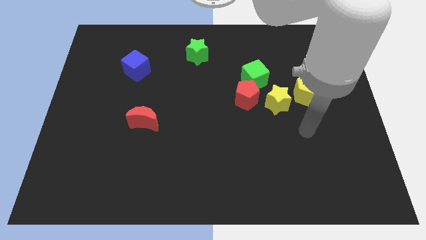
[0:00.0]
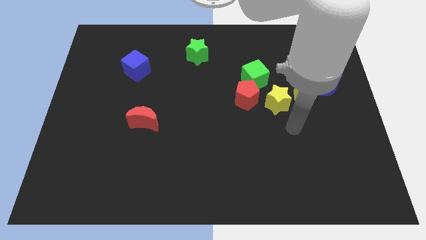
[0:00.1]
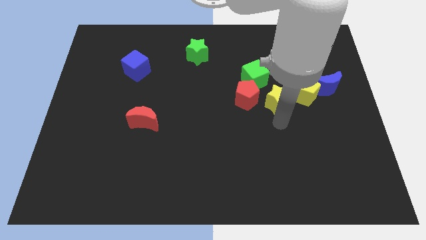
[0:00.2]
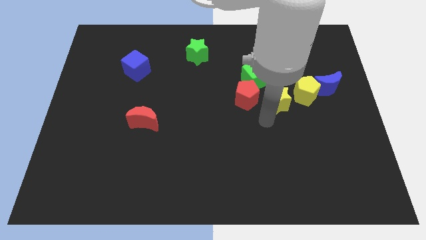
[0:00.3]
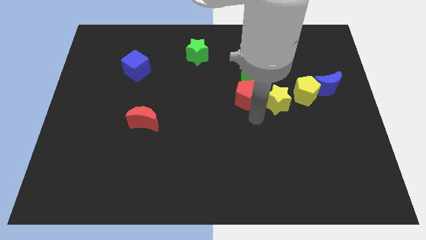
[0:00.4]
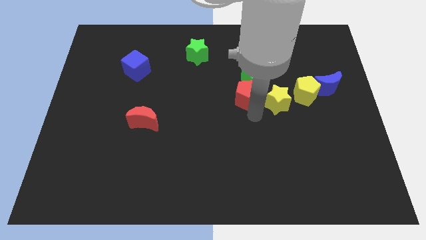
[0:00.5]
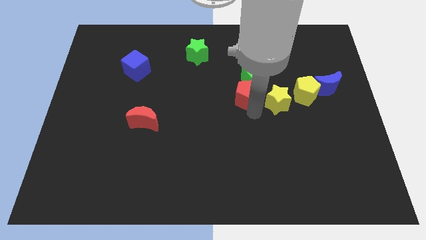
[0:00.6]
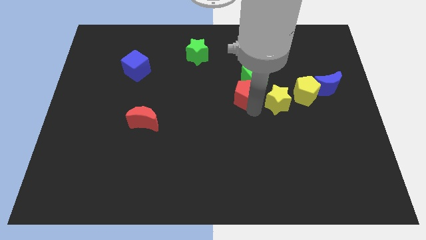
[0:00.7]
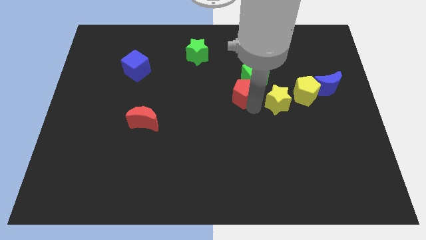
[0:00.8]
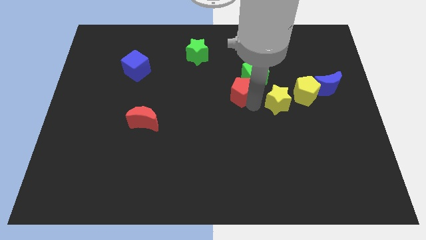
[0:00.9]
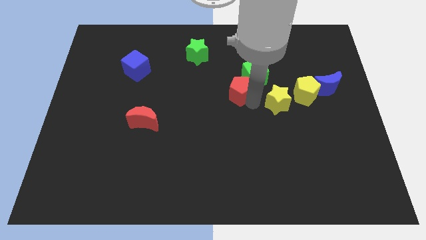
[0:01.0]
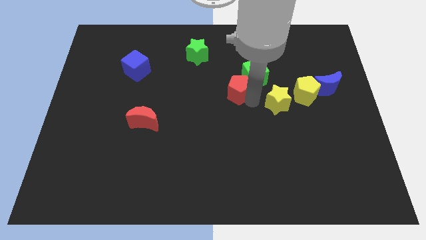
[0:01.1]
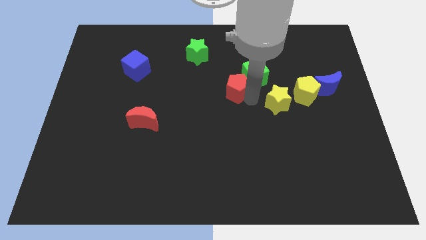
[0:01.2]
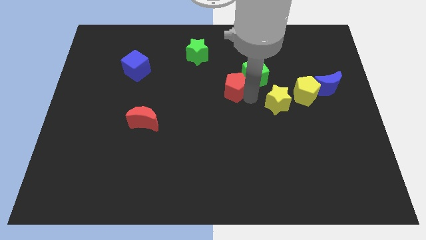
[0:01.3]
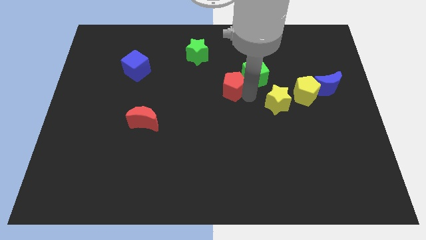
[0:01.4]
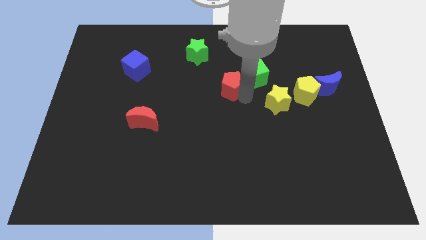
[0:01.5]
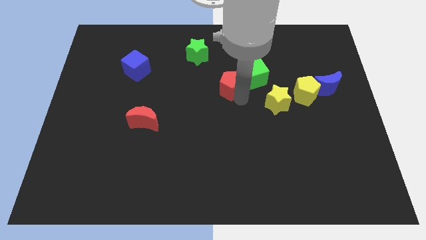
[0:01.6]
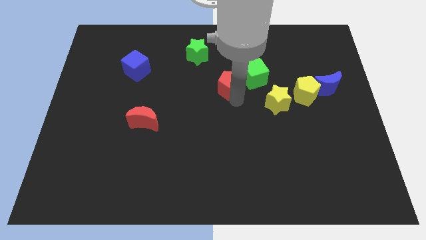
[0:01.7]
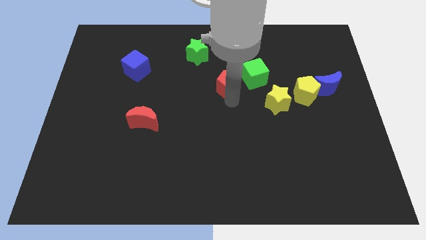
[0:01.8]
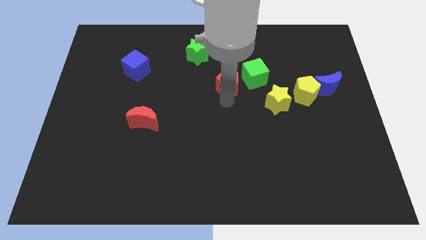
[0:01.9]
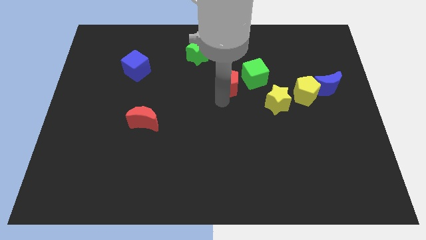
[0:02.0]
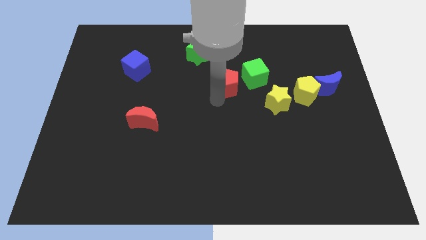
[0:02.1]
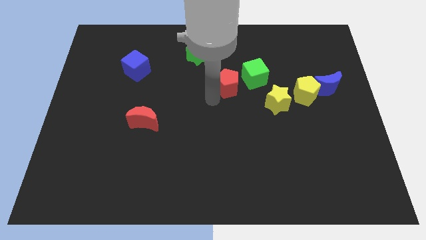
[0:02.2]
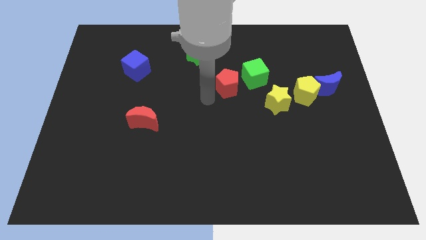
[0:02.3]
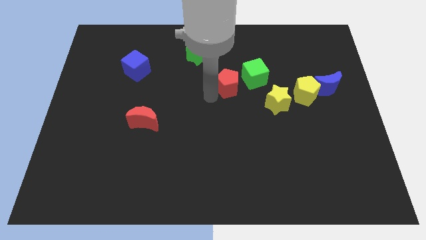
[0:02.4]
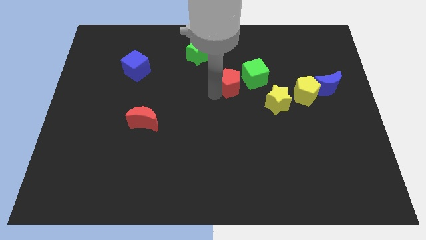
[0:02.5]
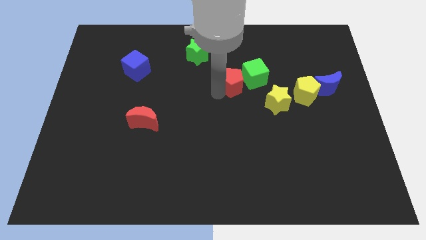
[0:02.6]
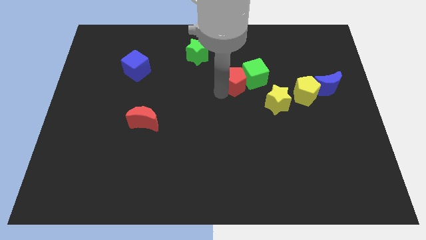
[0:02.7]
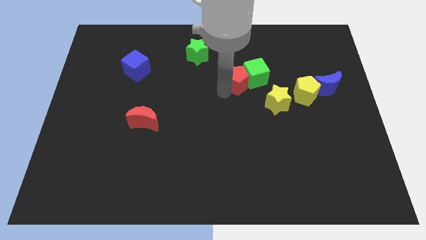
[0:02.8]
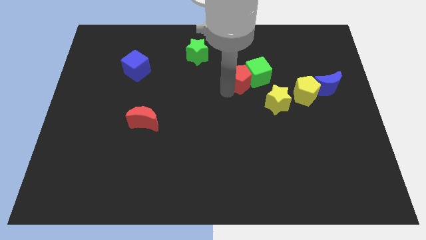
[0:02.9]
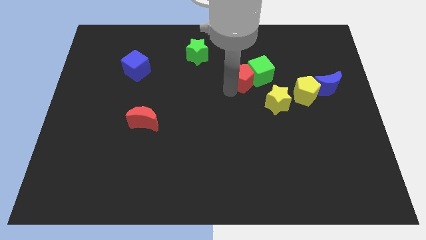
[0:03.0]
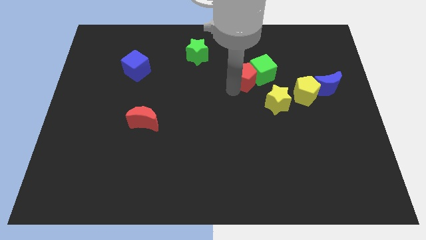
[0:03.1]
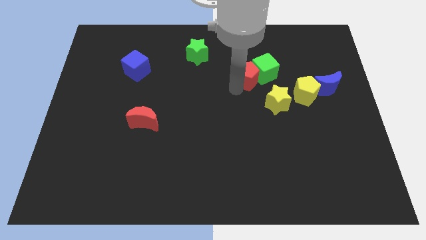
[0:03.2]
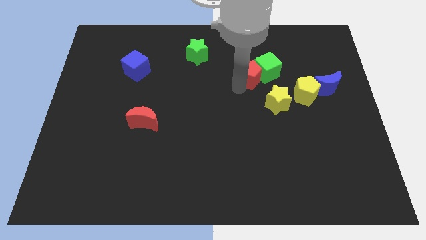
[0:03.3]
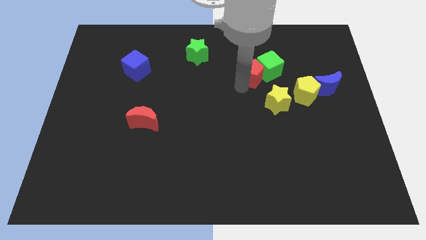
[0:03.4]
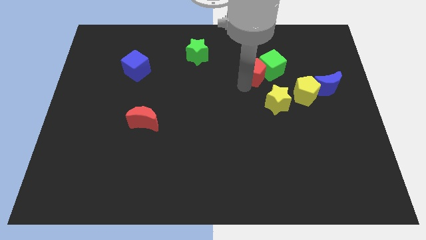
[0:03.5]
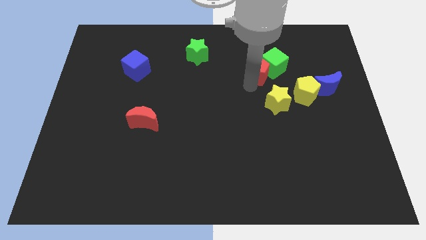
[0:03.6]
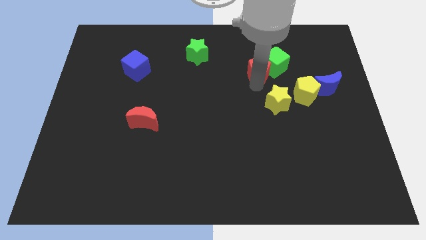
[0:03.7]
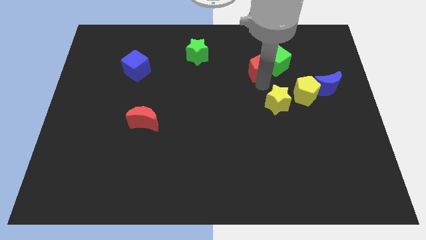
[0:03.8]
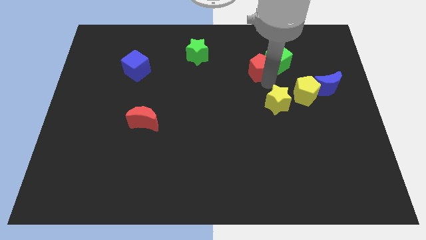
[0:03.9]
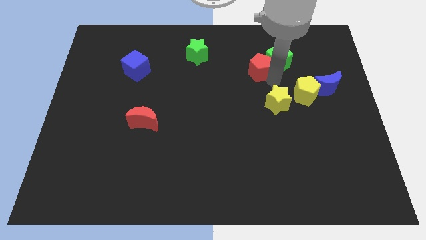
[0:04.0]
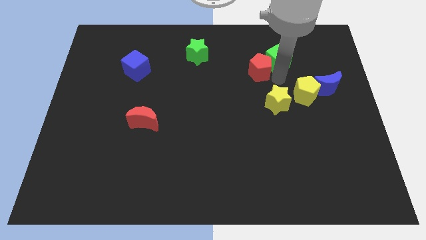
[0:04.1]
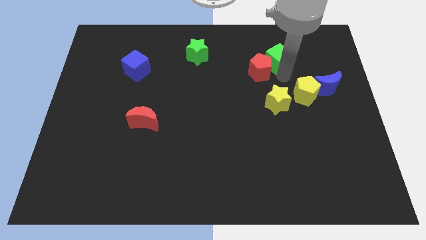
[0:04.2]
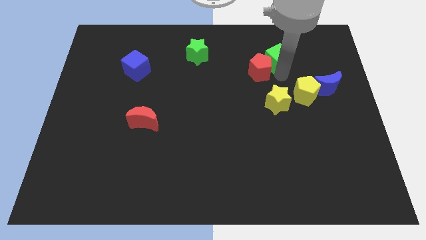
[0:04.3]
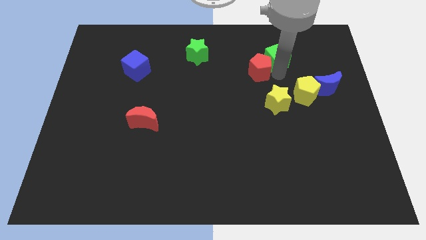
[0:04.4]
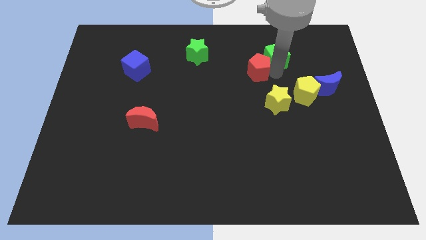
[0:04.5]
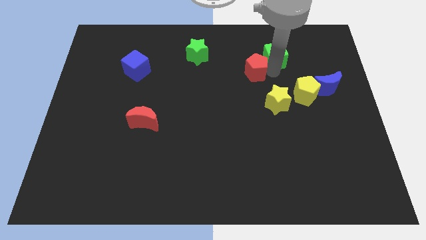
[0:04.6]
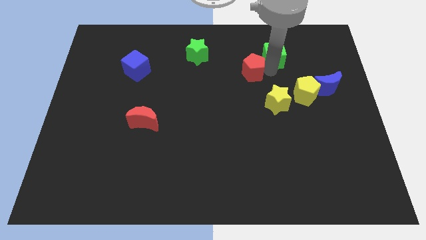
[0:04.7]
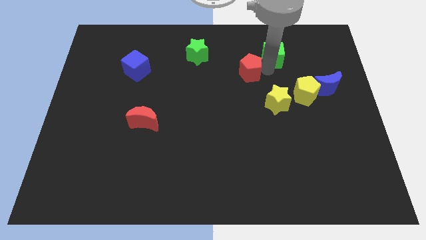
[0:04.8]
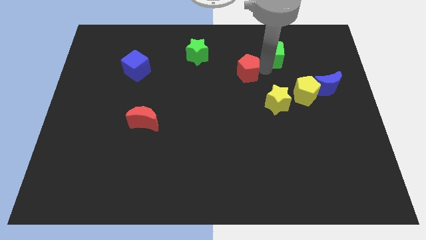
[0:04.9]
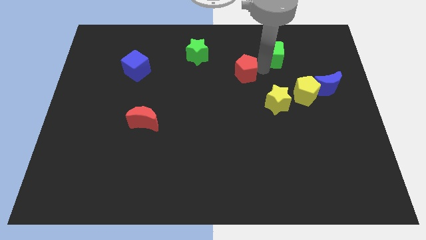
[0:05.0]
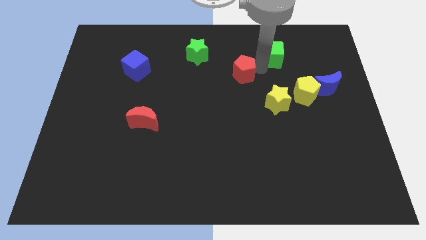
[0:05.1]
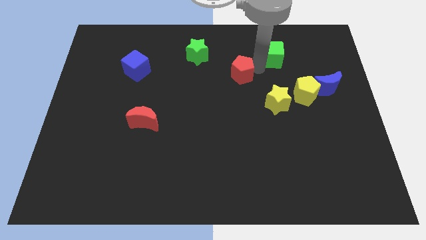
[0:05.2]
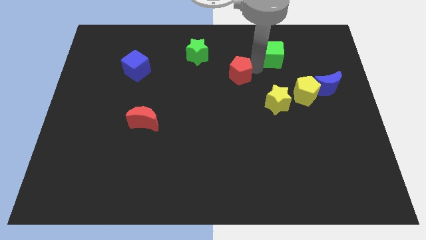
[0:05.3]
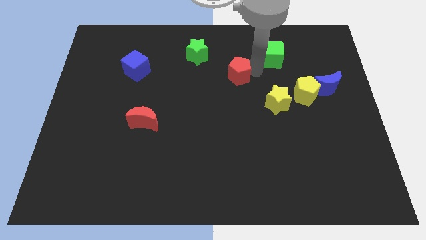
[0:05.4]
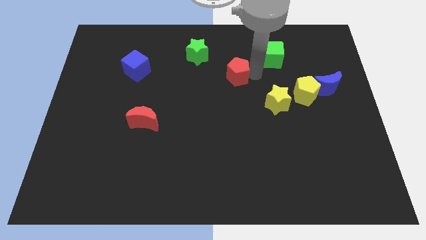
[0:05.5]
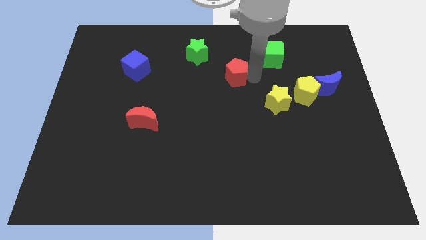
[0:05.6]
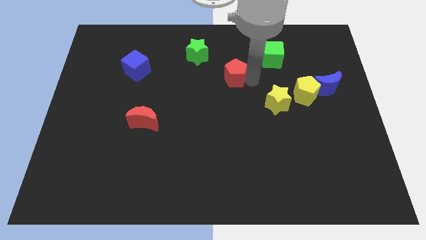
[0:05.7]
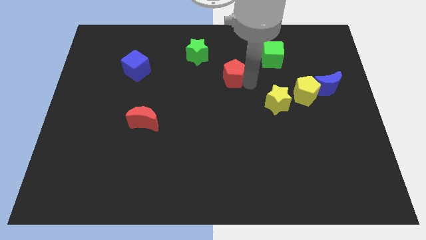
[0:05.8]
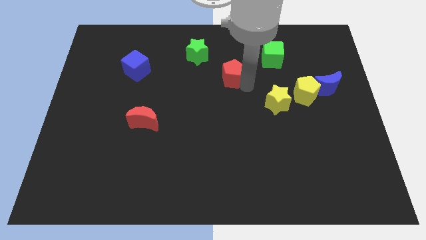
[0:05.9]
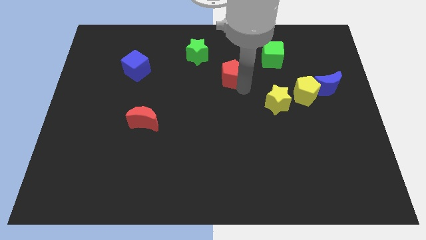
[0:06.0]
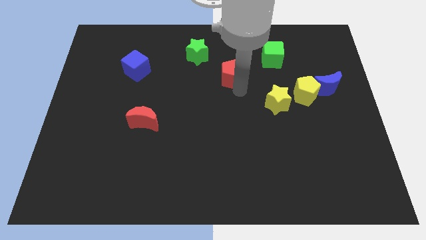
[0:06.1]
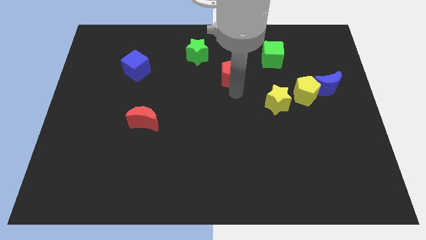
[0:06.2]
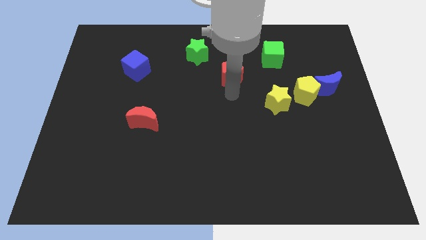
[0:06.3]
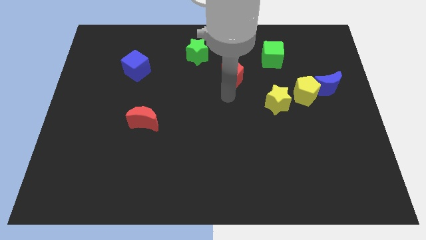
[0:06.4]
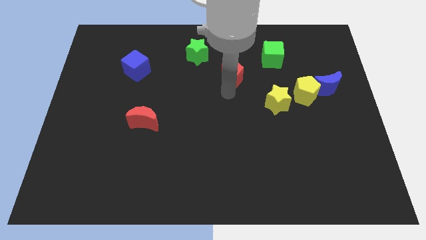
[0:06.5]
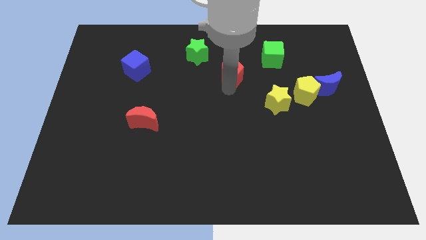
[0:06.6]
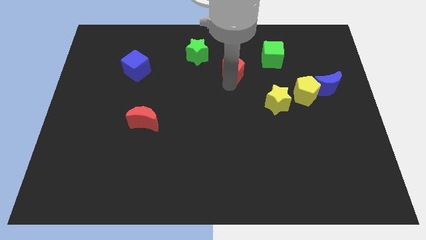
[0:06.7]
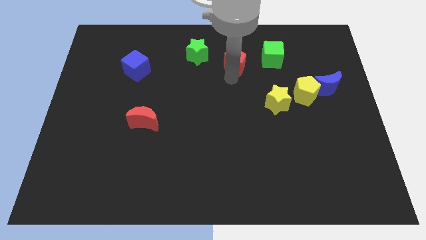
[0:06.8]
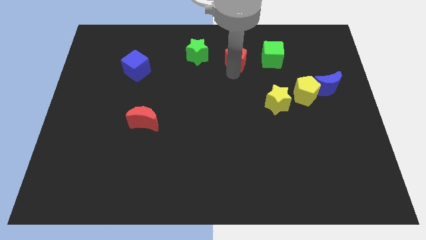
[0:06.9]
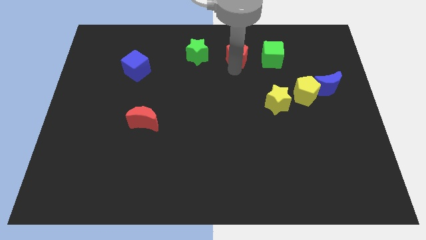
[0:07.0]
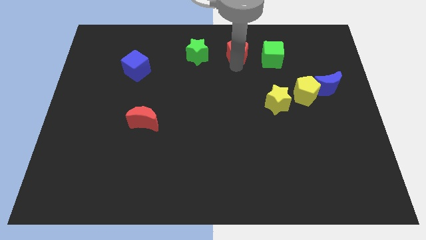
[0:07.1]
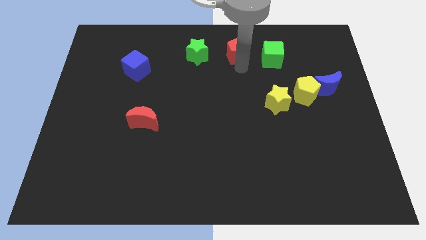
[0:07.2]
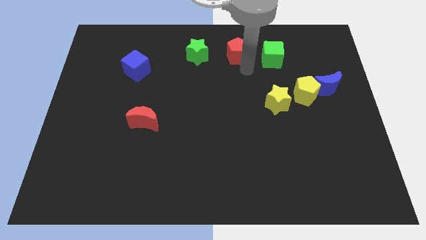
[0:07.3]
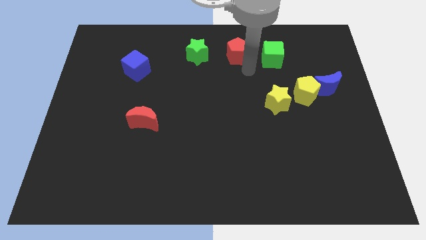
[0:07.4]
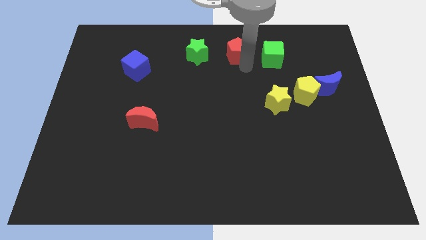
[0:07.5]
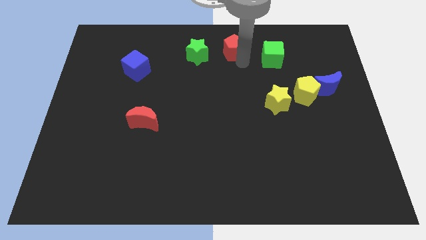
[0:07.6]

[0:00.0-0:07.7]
push the red pentagon to the top side
